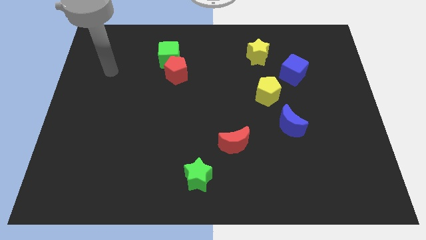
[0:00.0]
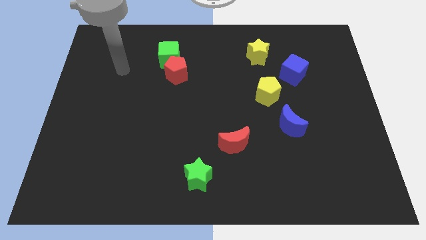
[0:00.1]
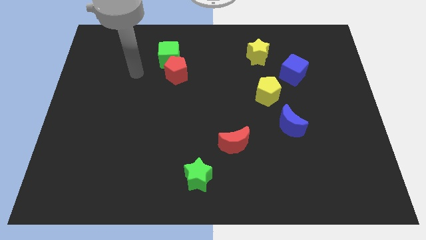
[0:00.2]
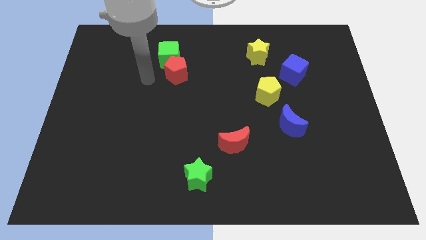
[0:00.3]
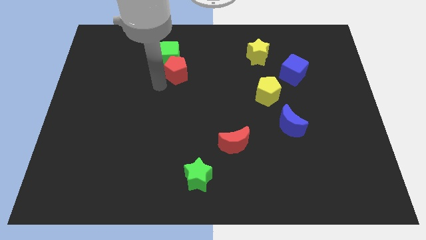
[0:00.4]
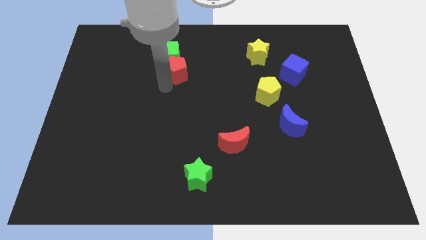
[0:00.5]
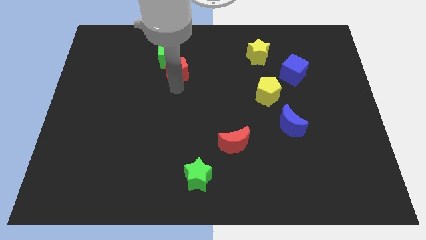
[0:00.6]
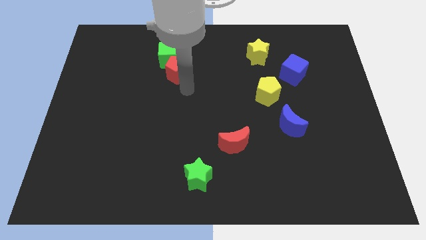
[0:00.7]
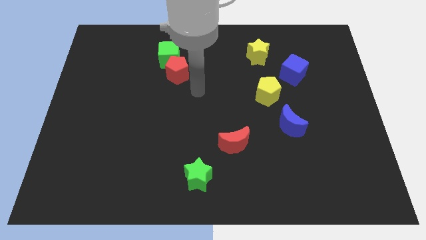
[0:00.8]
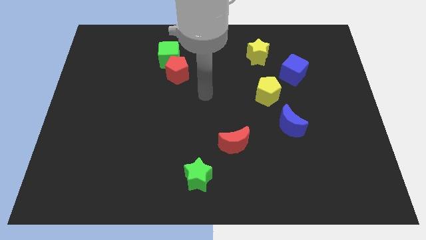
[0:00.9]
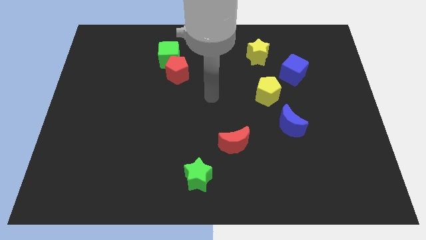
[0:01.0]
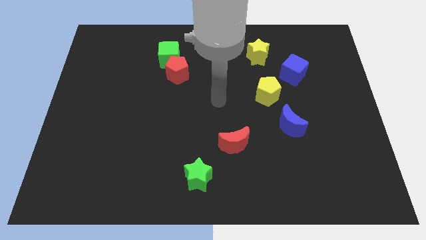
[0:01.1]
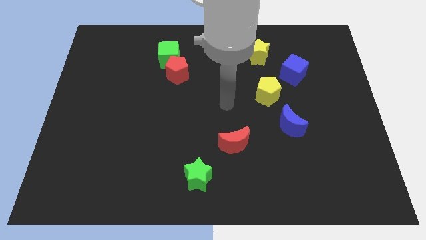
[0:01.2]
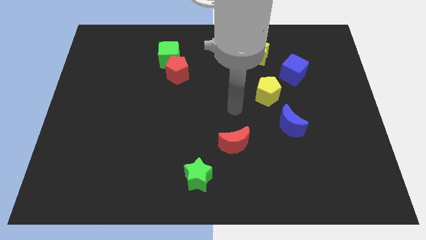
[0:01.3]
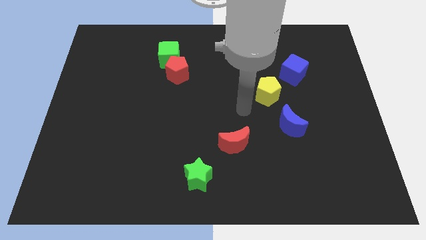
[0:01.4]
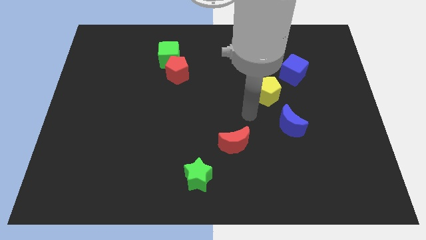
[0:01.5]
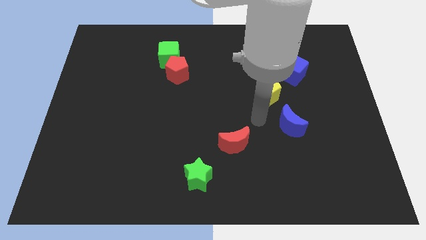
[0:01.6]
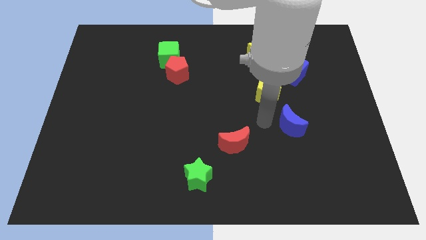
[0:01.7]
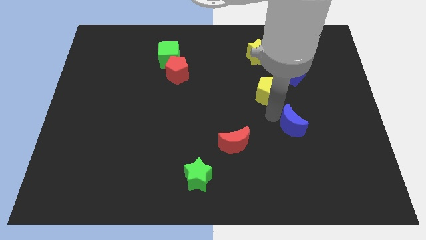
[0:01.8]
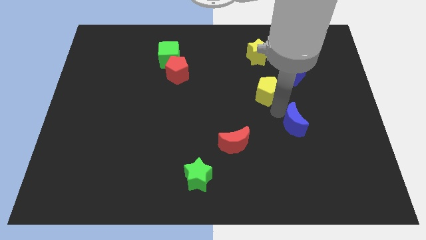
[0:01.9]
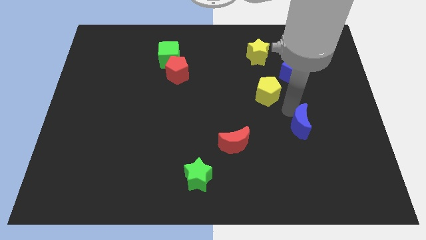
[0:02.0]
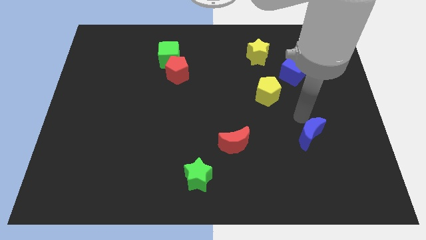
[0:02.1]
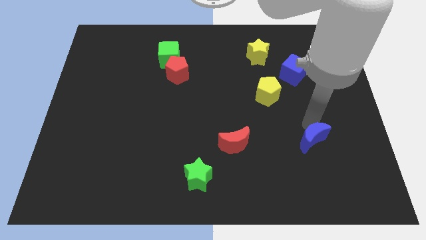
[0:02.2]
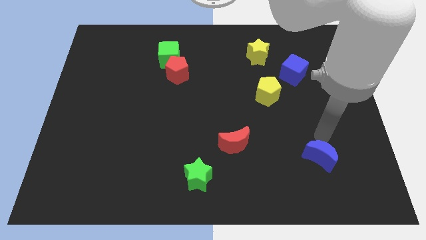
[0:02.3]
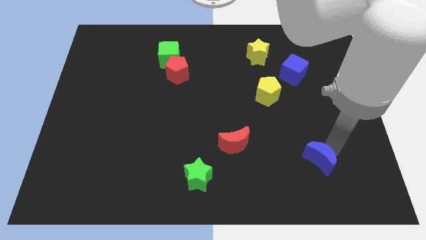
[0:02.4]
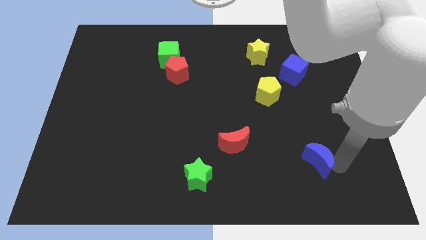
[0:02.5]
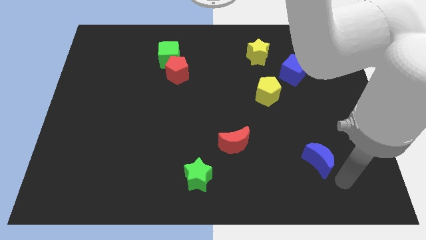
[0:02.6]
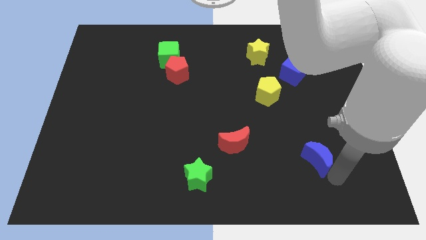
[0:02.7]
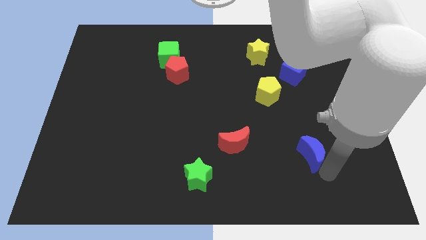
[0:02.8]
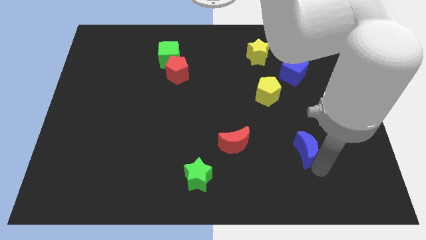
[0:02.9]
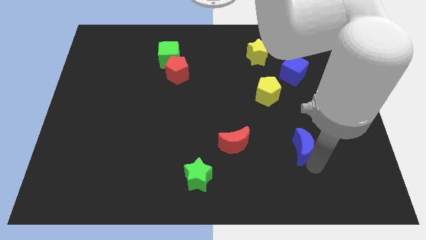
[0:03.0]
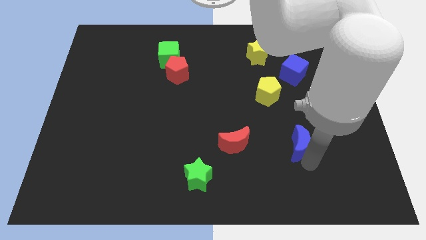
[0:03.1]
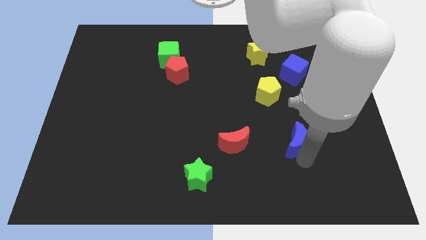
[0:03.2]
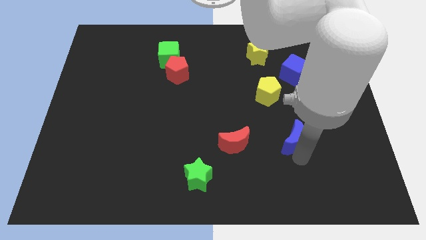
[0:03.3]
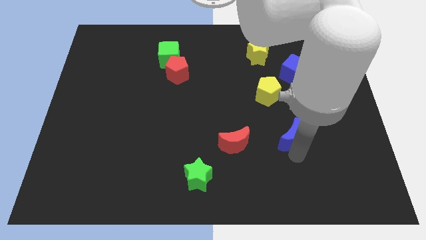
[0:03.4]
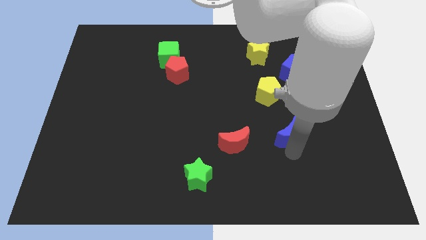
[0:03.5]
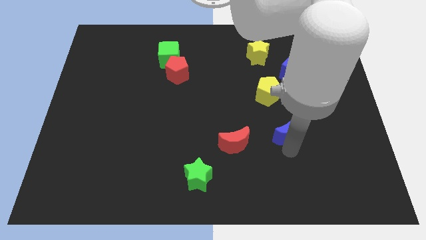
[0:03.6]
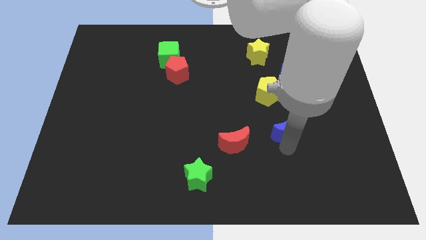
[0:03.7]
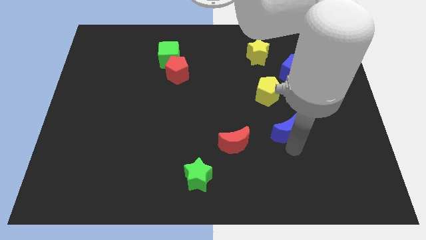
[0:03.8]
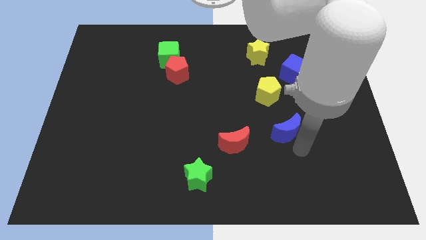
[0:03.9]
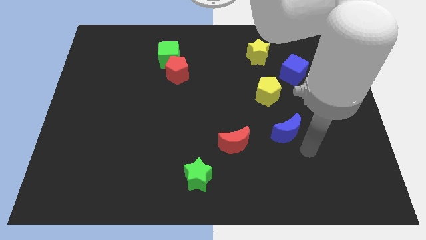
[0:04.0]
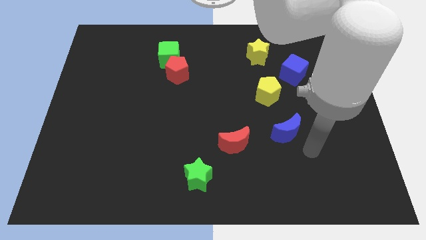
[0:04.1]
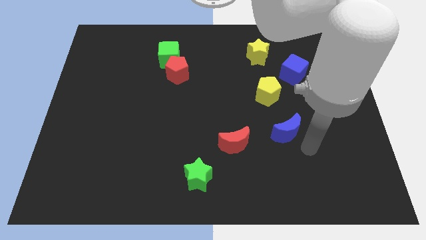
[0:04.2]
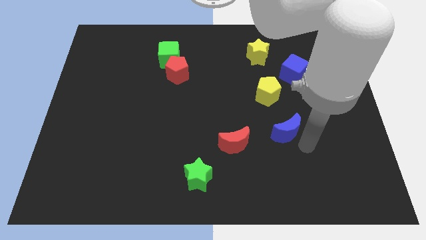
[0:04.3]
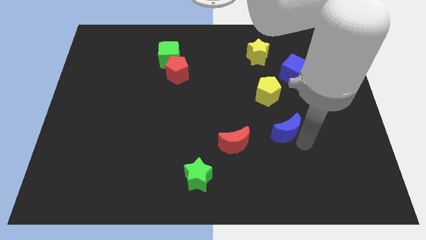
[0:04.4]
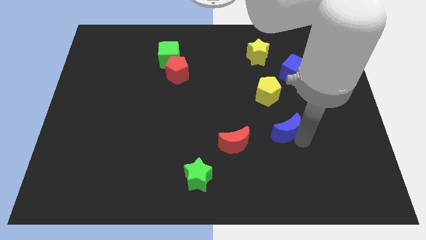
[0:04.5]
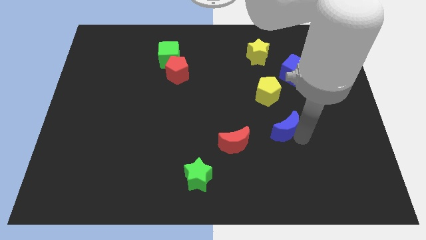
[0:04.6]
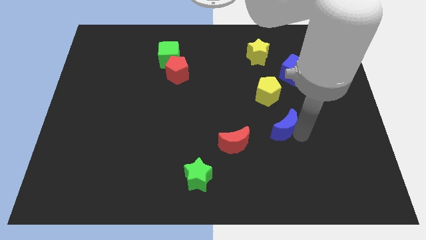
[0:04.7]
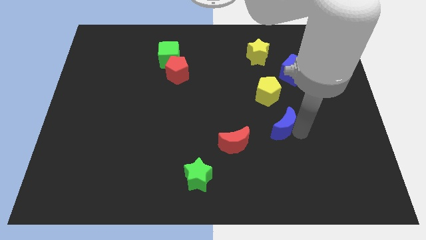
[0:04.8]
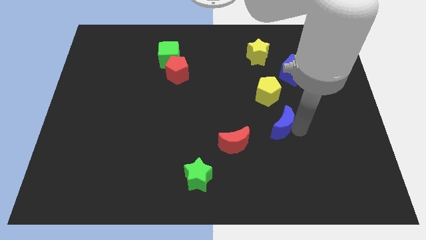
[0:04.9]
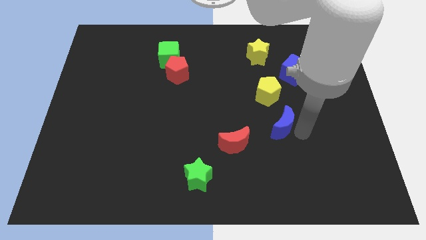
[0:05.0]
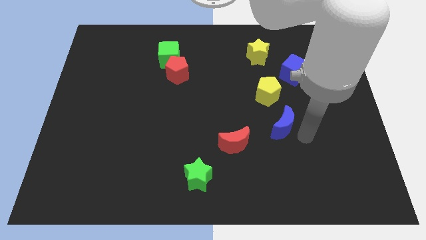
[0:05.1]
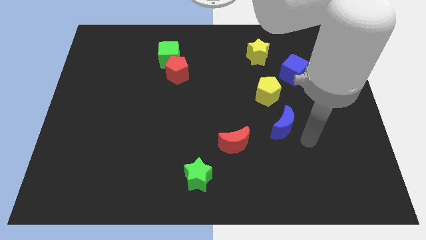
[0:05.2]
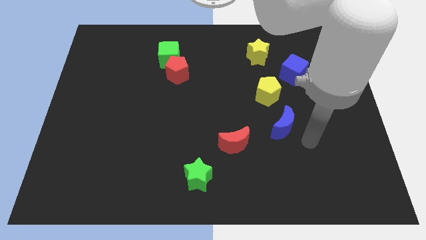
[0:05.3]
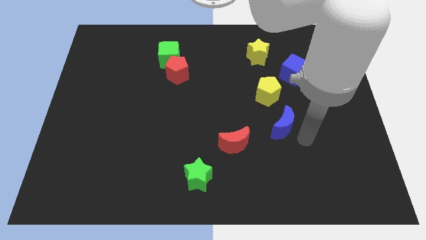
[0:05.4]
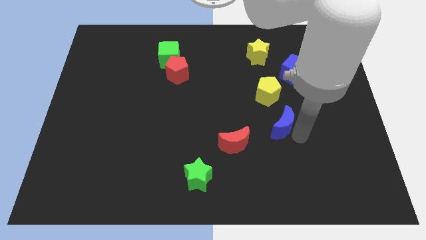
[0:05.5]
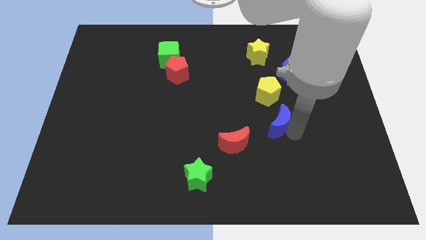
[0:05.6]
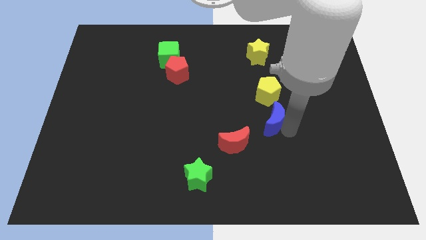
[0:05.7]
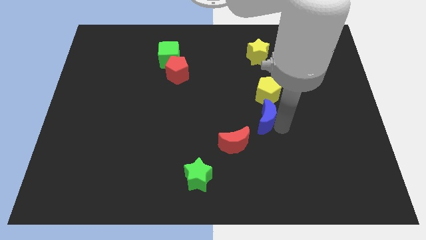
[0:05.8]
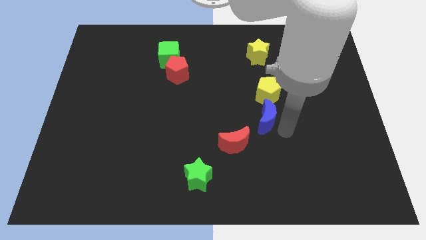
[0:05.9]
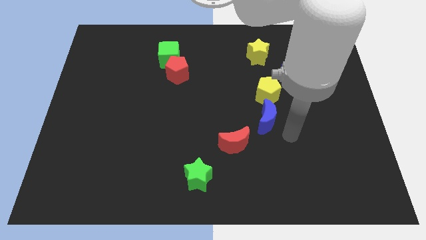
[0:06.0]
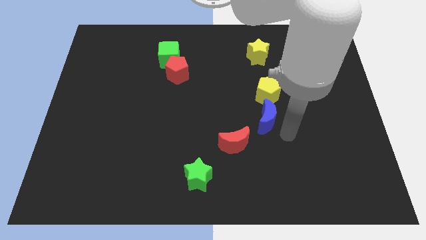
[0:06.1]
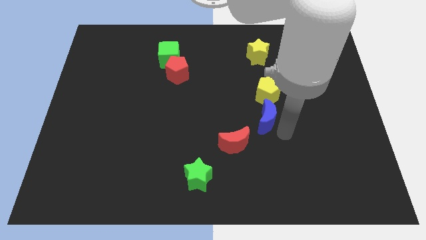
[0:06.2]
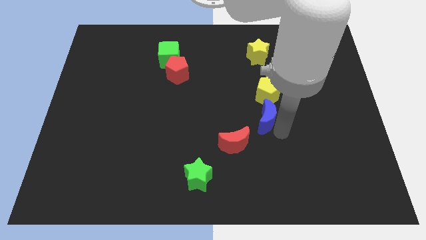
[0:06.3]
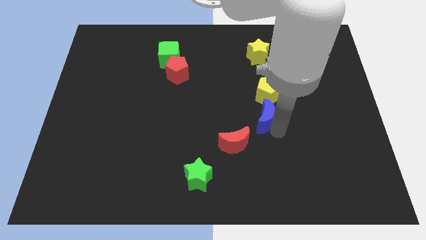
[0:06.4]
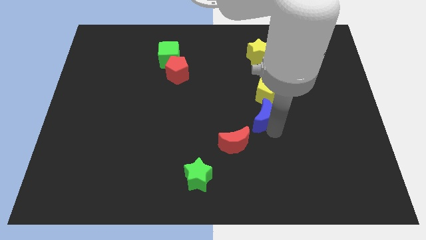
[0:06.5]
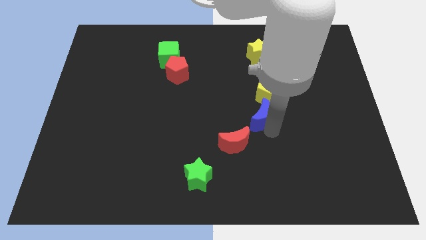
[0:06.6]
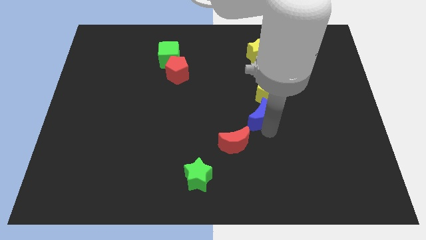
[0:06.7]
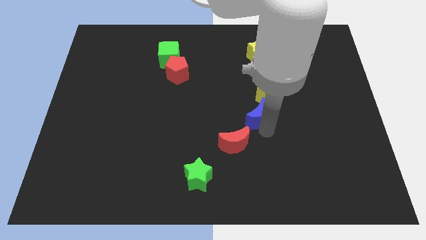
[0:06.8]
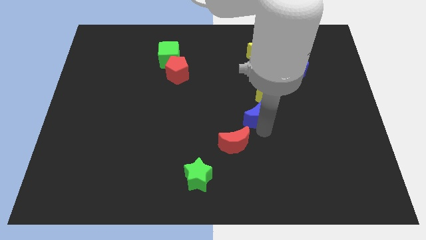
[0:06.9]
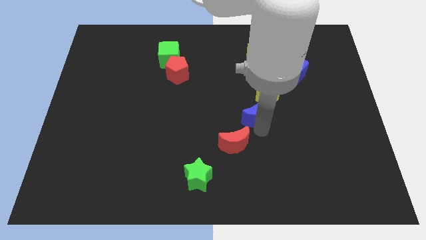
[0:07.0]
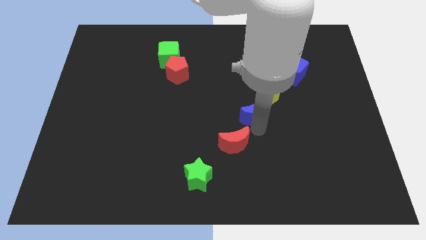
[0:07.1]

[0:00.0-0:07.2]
push the blue moon diagonally upwards and left somewhat

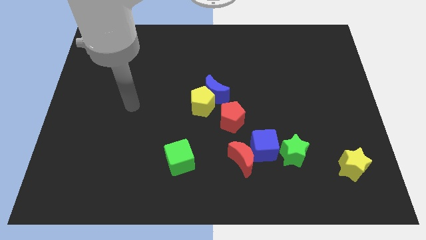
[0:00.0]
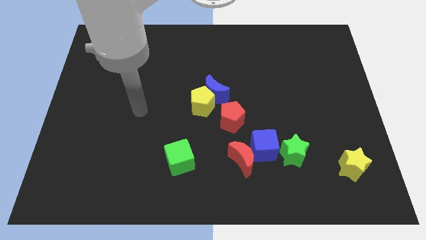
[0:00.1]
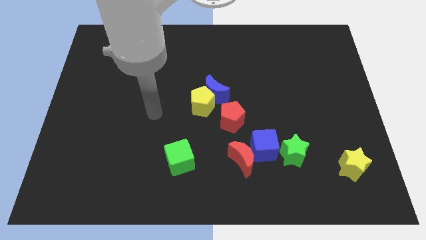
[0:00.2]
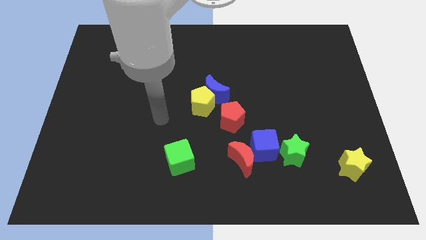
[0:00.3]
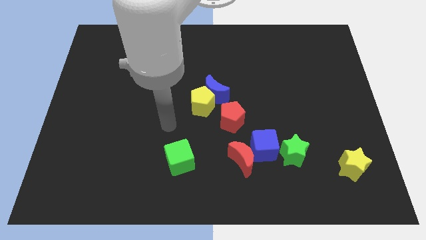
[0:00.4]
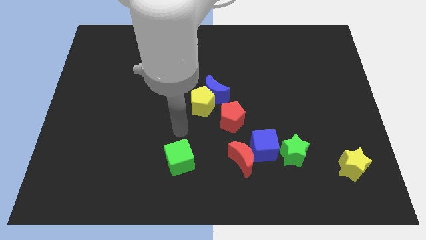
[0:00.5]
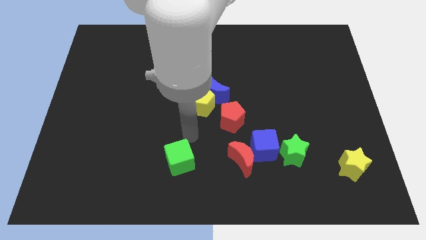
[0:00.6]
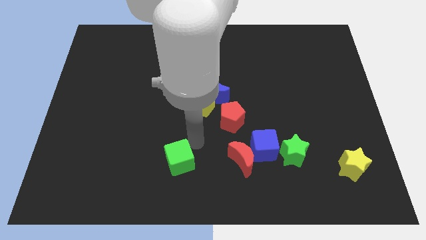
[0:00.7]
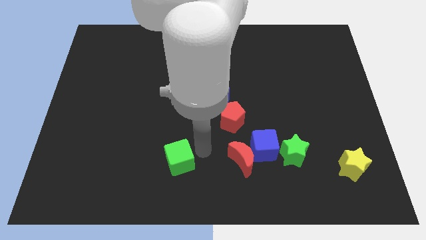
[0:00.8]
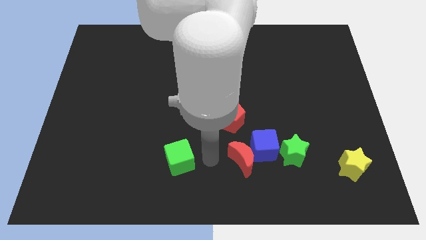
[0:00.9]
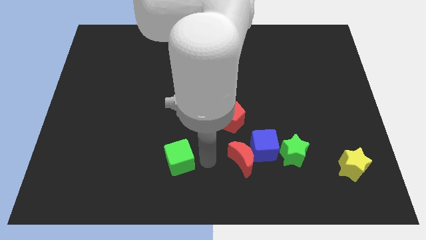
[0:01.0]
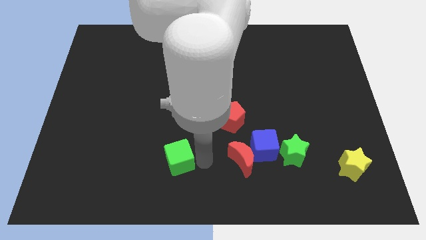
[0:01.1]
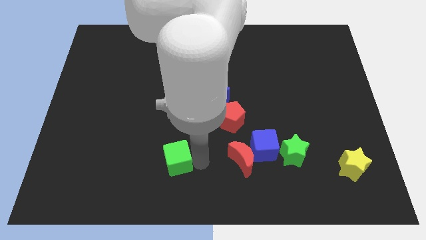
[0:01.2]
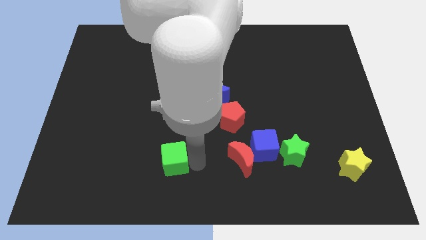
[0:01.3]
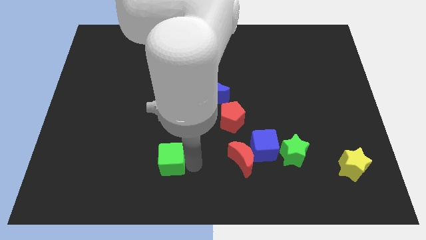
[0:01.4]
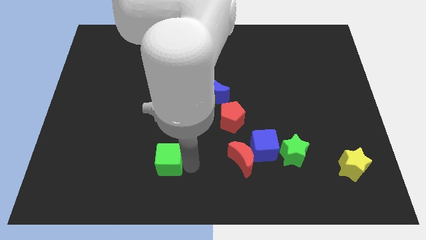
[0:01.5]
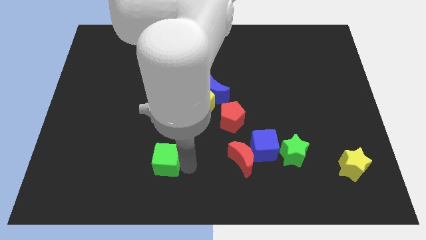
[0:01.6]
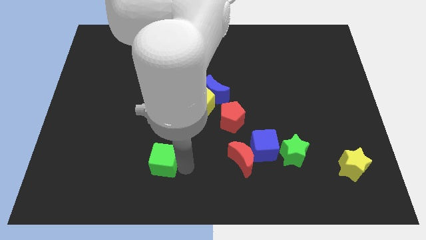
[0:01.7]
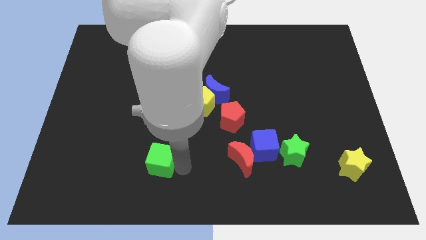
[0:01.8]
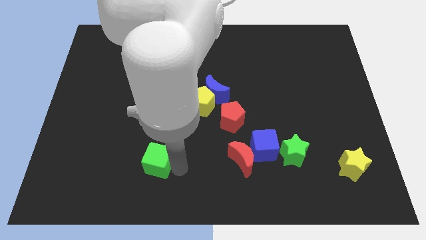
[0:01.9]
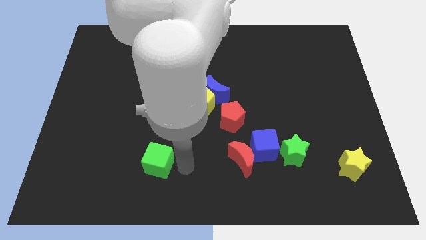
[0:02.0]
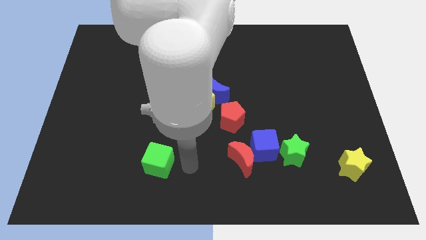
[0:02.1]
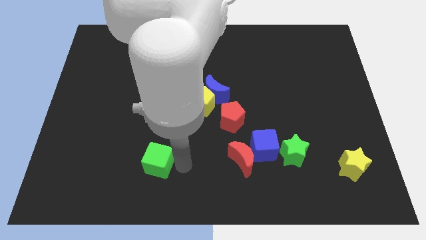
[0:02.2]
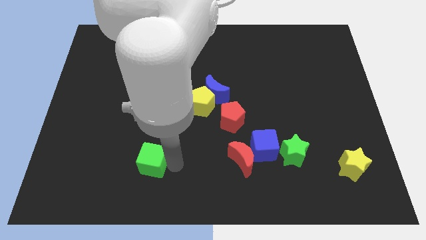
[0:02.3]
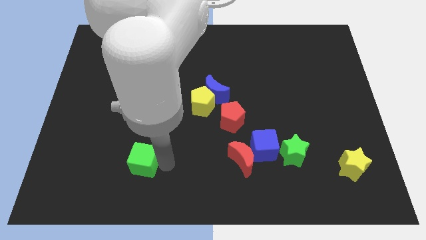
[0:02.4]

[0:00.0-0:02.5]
move the green cube a bit left
